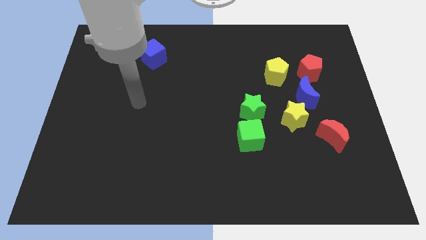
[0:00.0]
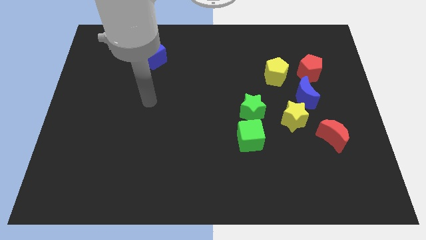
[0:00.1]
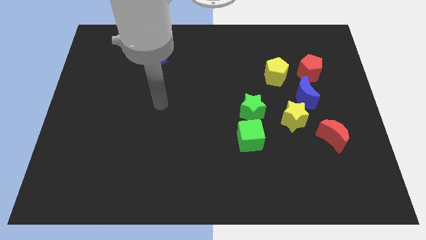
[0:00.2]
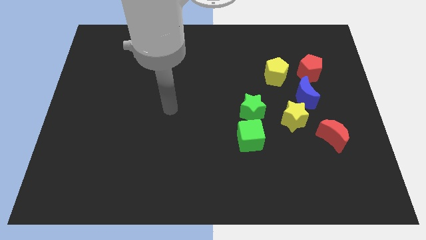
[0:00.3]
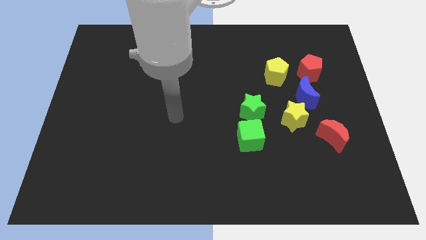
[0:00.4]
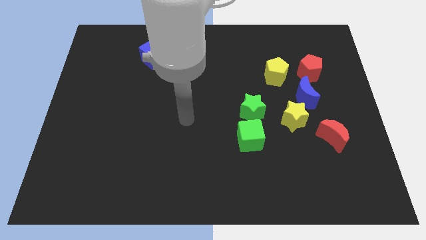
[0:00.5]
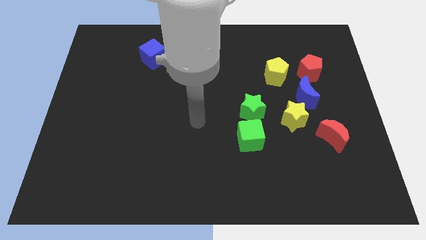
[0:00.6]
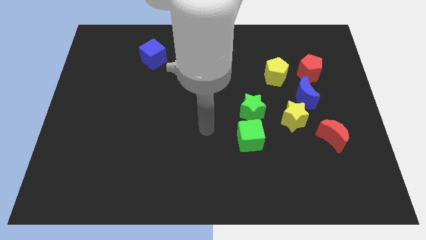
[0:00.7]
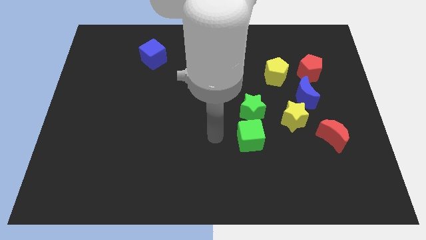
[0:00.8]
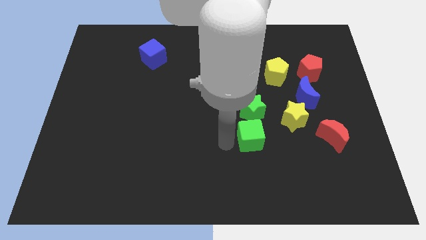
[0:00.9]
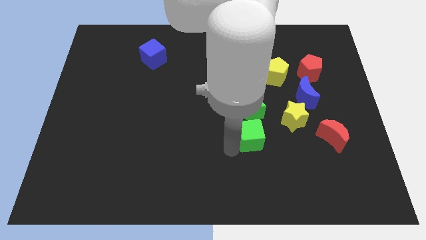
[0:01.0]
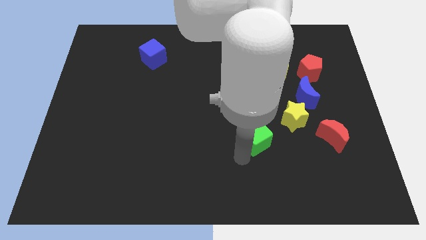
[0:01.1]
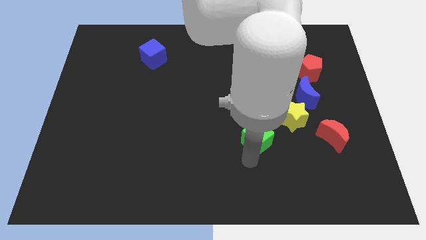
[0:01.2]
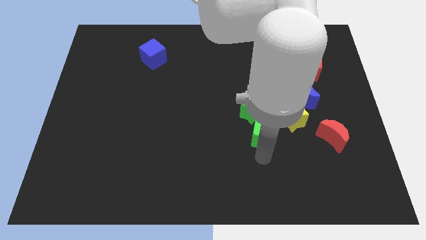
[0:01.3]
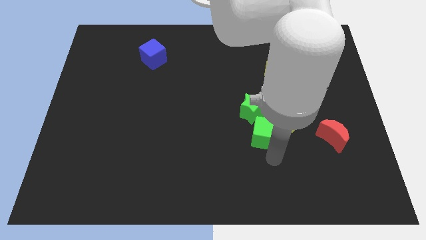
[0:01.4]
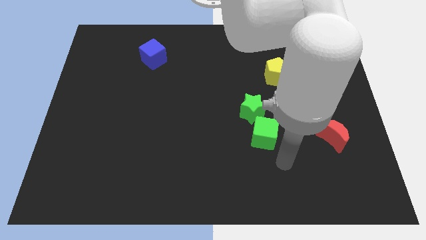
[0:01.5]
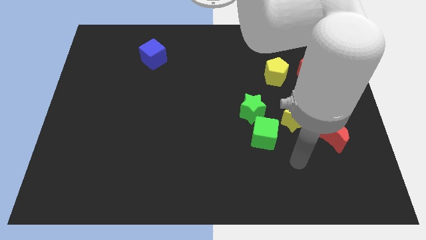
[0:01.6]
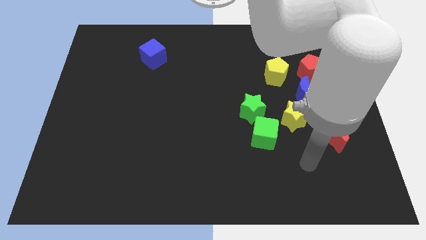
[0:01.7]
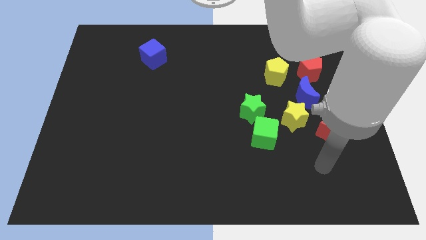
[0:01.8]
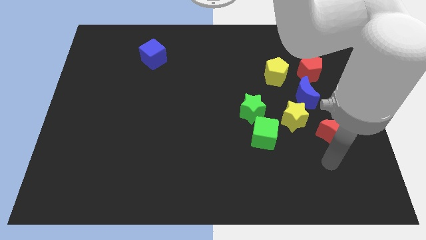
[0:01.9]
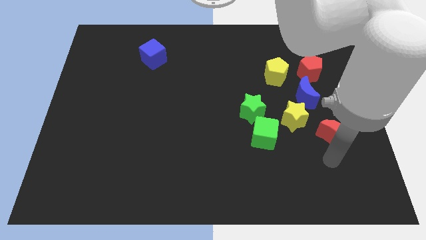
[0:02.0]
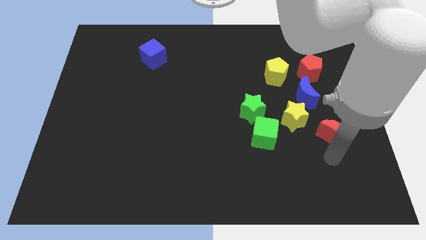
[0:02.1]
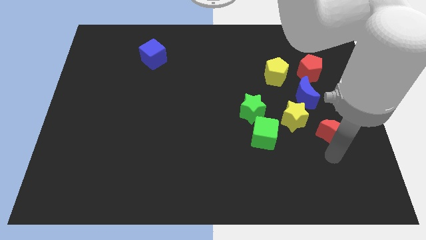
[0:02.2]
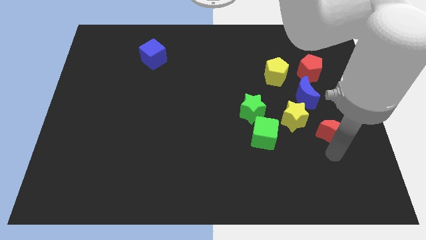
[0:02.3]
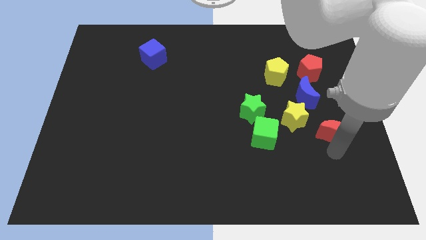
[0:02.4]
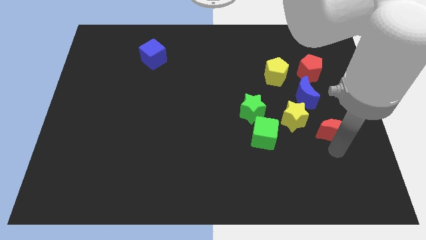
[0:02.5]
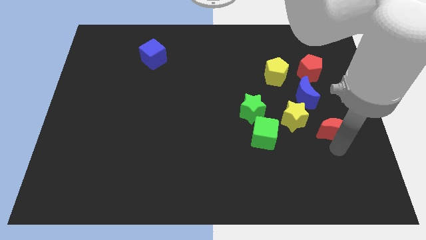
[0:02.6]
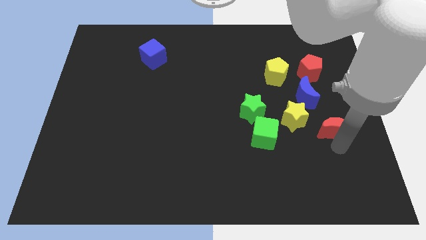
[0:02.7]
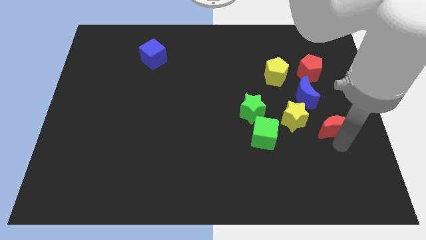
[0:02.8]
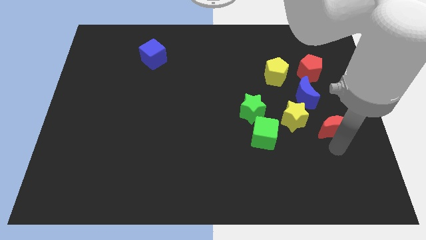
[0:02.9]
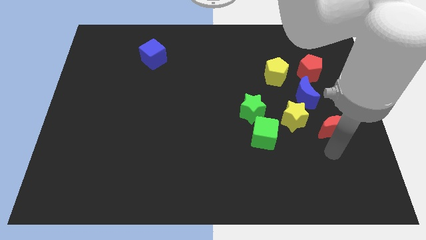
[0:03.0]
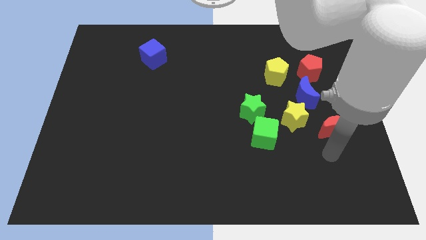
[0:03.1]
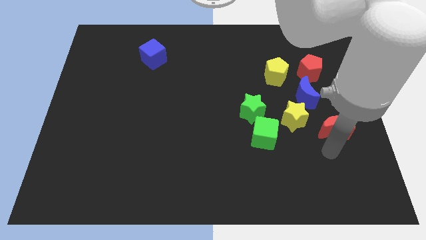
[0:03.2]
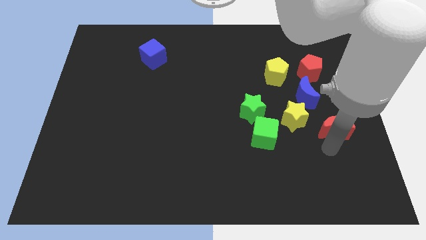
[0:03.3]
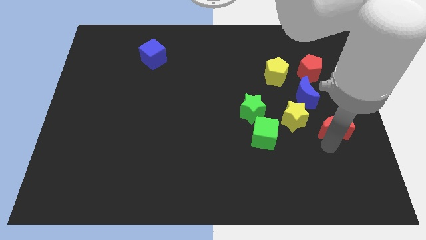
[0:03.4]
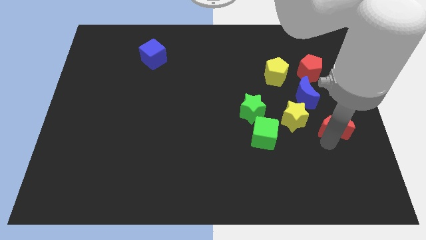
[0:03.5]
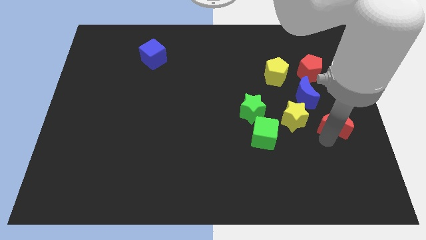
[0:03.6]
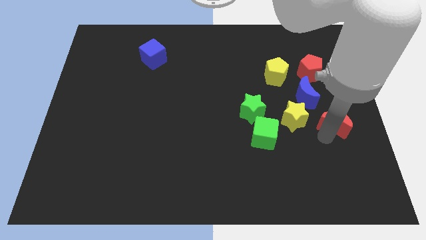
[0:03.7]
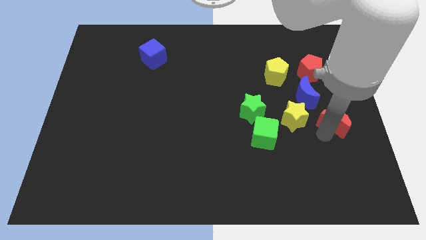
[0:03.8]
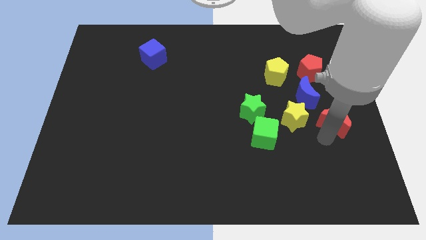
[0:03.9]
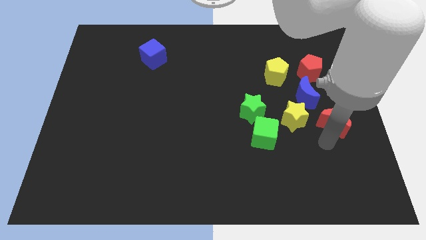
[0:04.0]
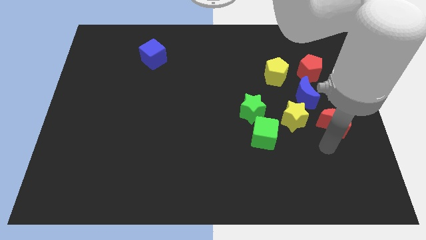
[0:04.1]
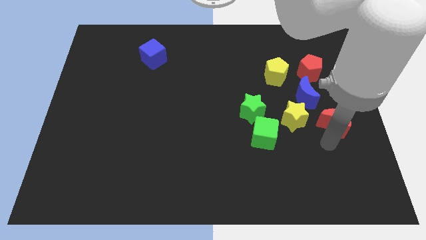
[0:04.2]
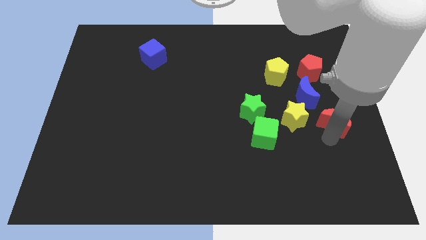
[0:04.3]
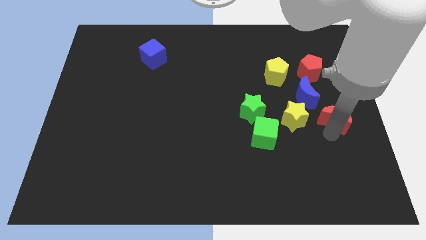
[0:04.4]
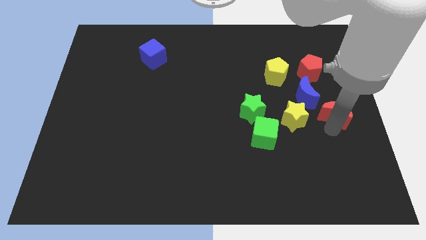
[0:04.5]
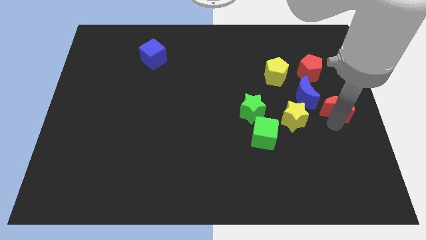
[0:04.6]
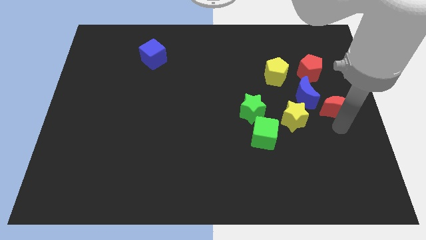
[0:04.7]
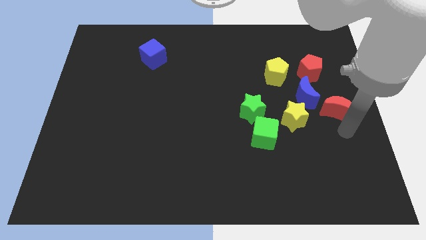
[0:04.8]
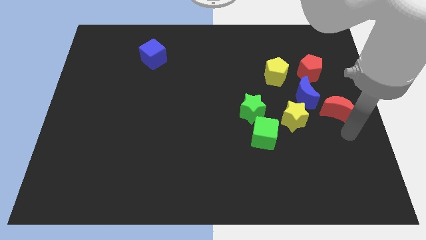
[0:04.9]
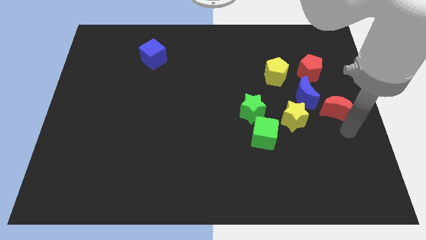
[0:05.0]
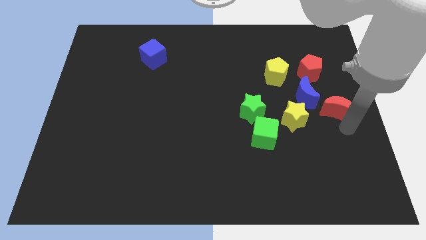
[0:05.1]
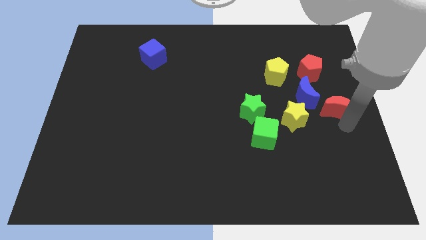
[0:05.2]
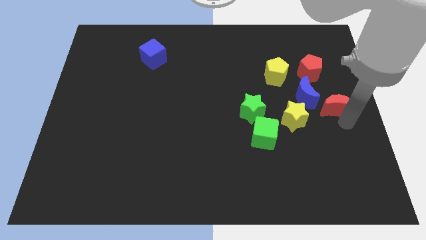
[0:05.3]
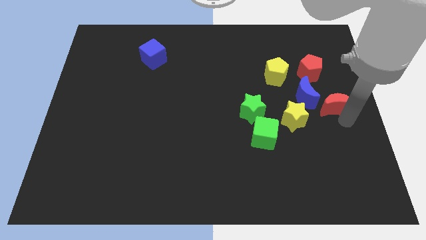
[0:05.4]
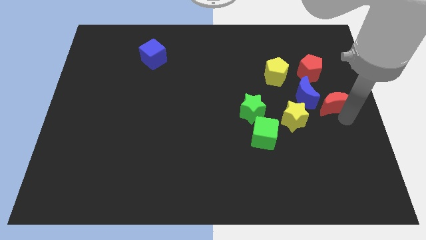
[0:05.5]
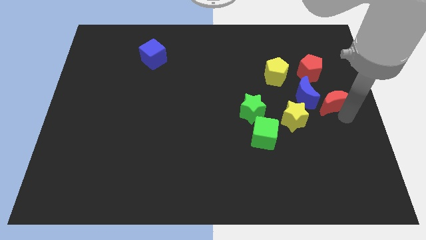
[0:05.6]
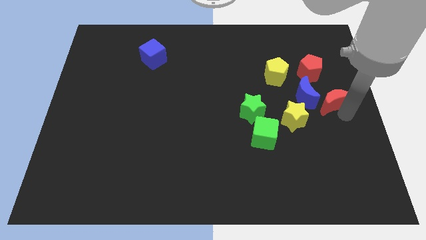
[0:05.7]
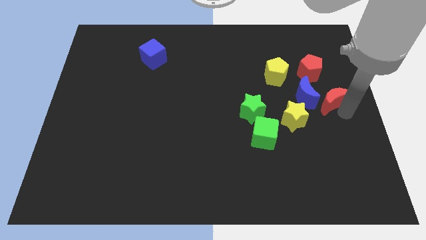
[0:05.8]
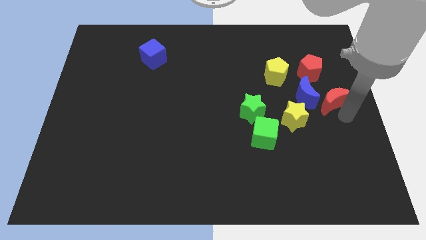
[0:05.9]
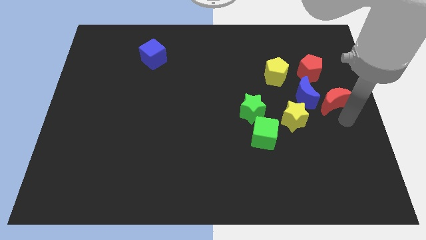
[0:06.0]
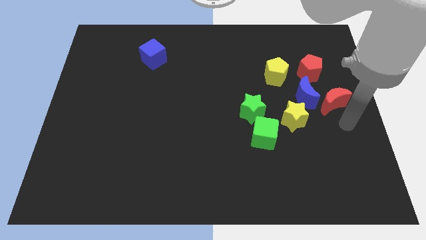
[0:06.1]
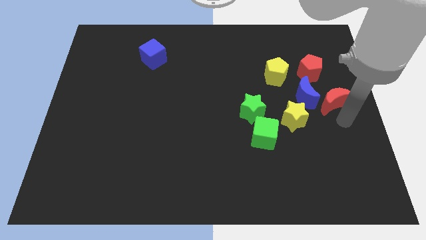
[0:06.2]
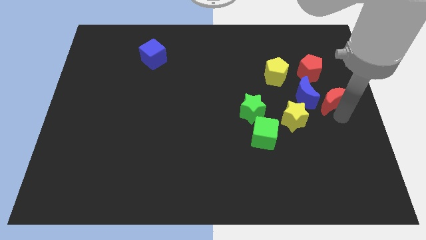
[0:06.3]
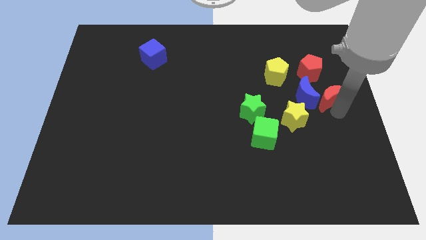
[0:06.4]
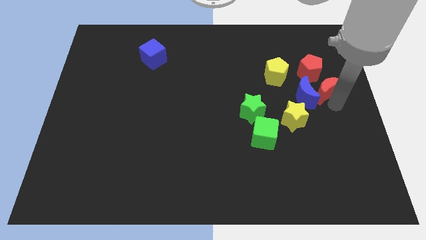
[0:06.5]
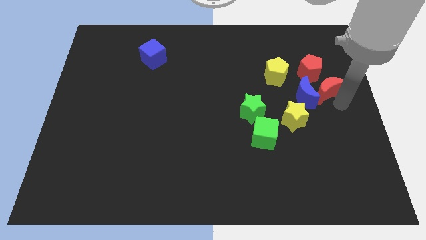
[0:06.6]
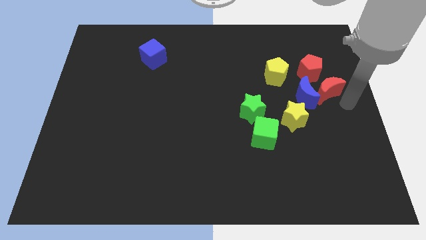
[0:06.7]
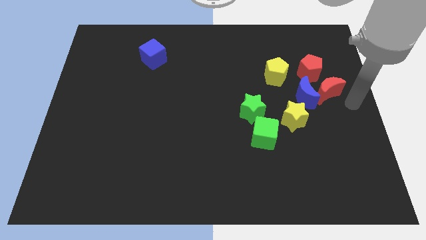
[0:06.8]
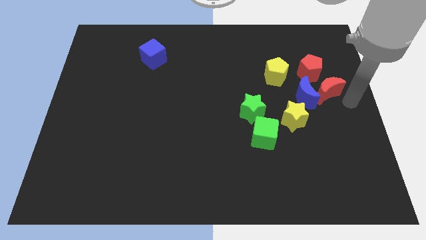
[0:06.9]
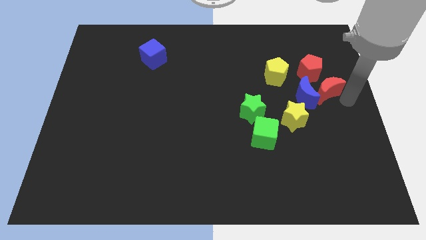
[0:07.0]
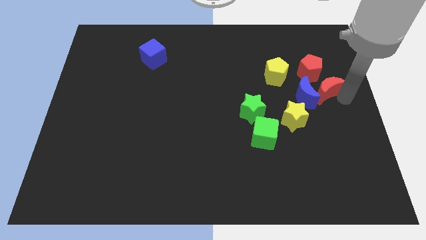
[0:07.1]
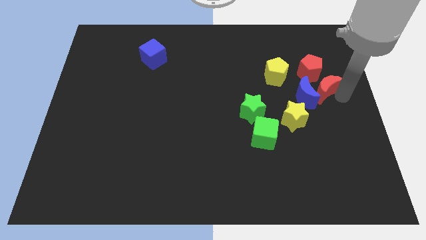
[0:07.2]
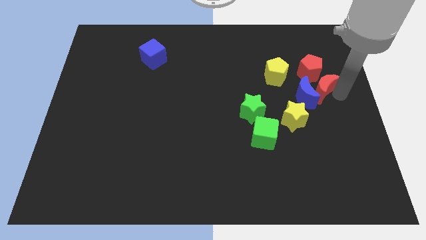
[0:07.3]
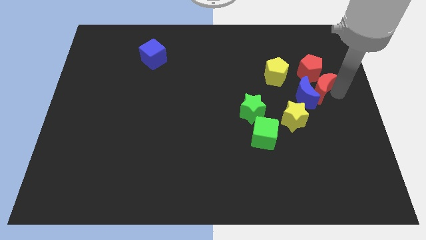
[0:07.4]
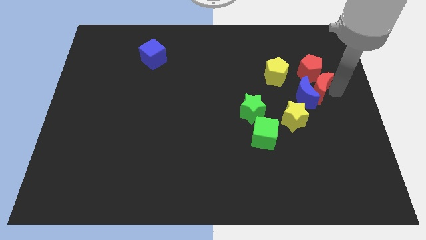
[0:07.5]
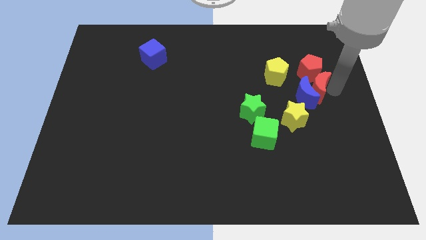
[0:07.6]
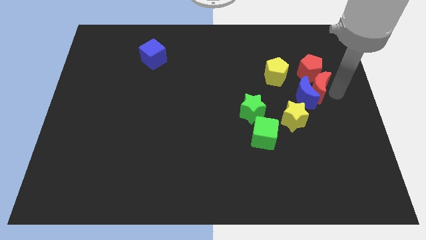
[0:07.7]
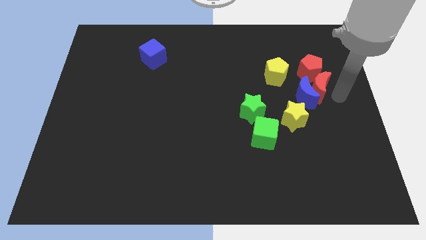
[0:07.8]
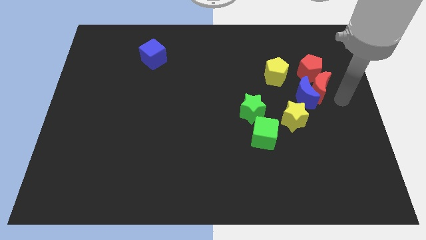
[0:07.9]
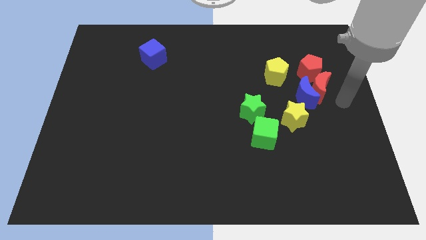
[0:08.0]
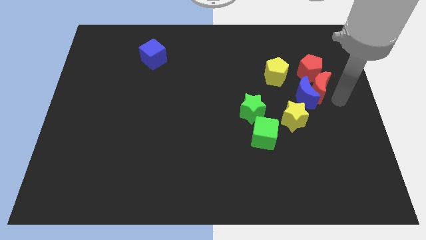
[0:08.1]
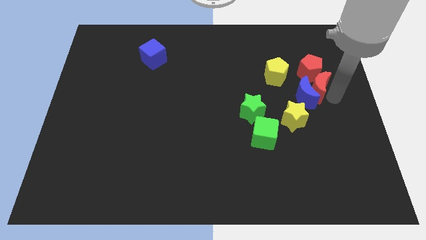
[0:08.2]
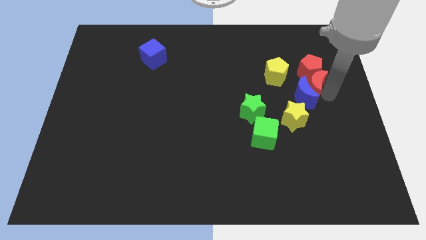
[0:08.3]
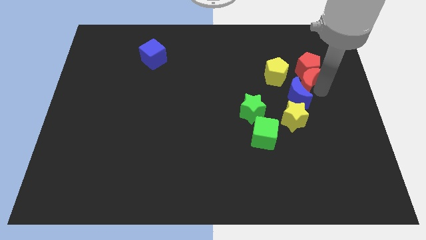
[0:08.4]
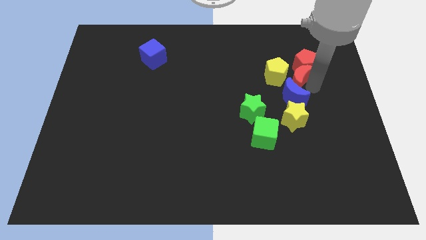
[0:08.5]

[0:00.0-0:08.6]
push the red moon next to the yellow pentagon
